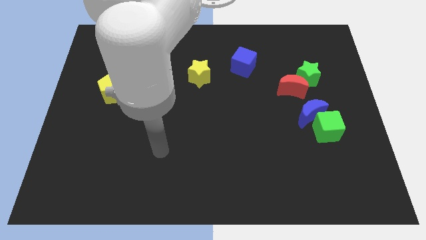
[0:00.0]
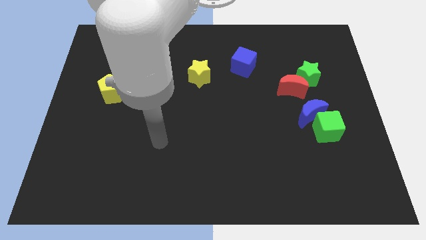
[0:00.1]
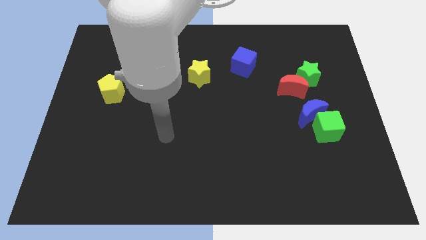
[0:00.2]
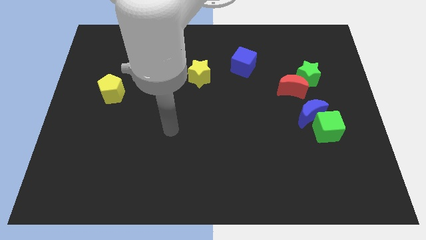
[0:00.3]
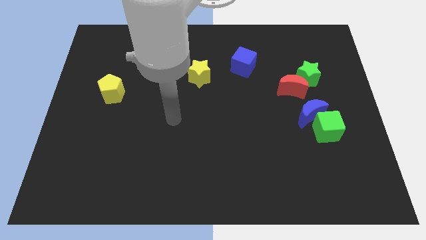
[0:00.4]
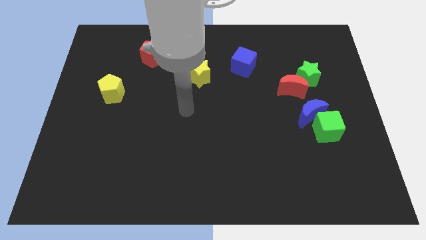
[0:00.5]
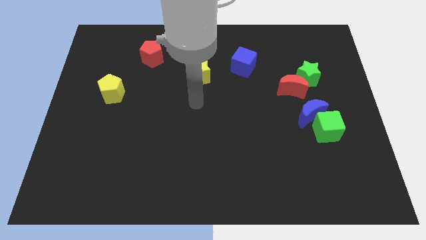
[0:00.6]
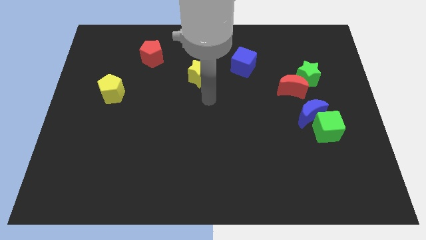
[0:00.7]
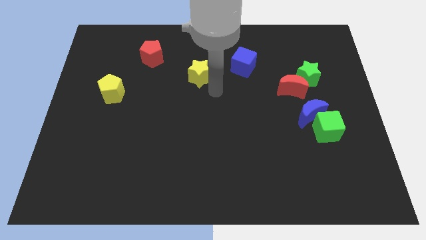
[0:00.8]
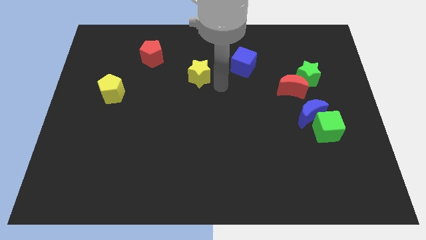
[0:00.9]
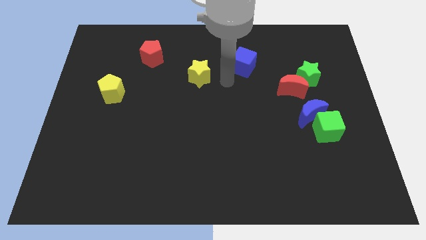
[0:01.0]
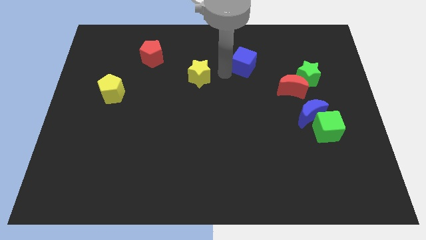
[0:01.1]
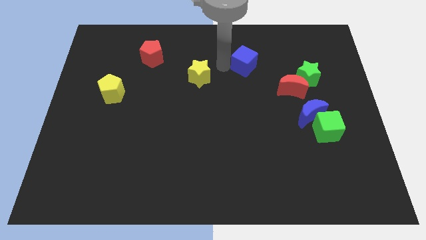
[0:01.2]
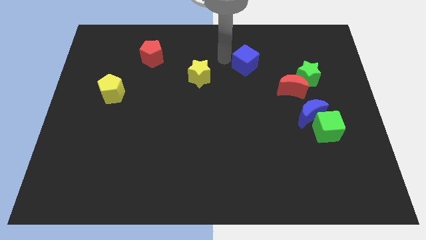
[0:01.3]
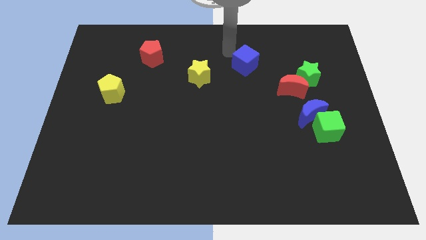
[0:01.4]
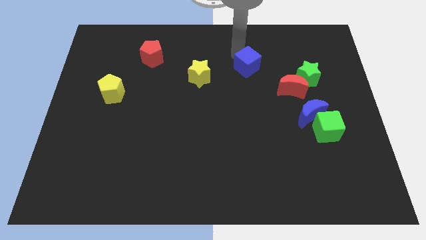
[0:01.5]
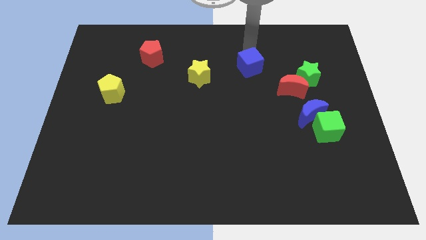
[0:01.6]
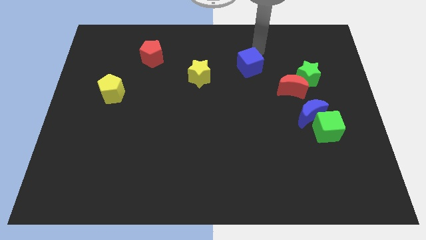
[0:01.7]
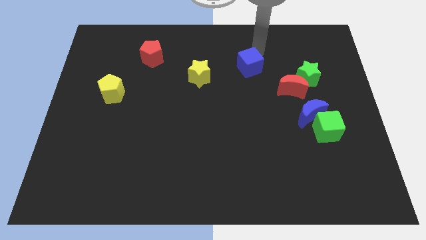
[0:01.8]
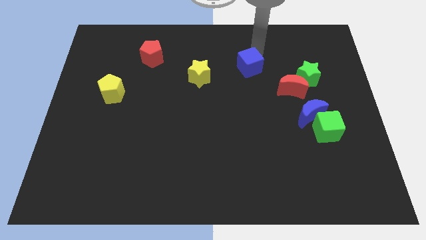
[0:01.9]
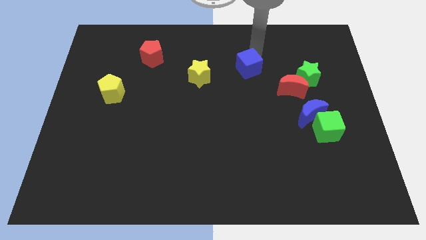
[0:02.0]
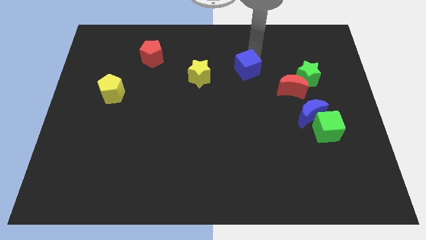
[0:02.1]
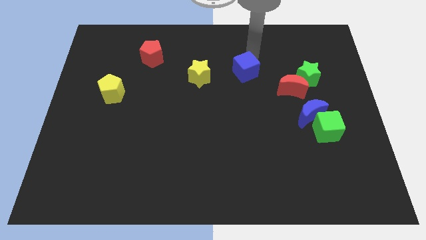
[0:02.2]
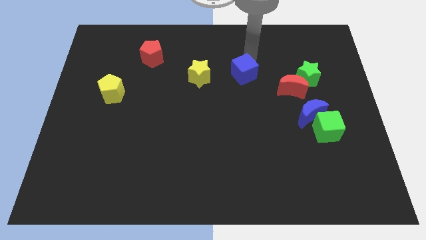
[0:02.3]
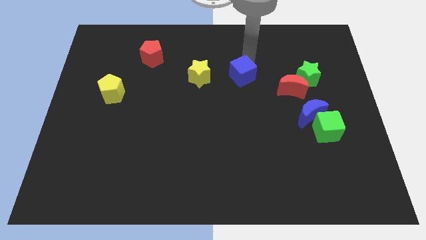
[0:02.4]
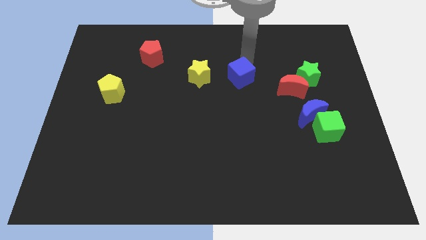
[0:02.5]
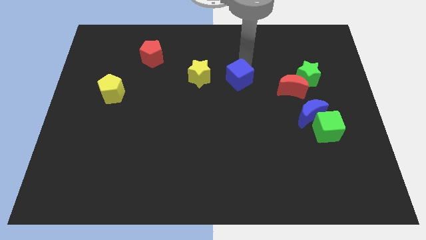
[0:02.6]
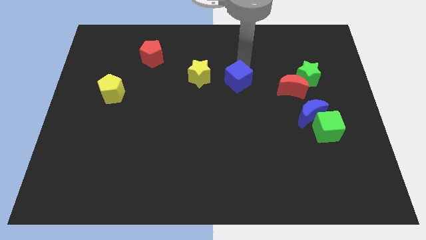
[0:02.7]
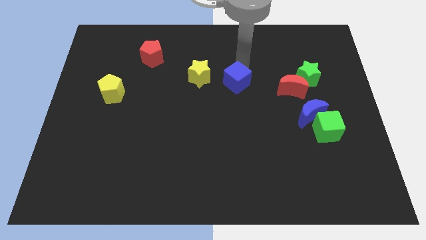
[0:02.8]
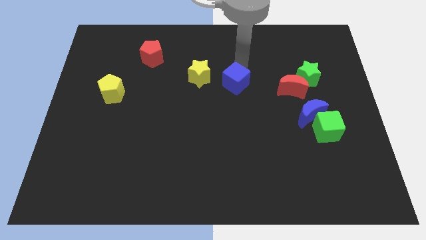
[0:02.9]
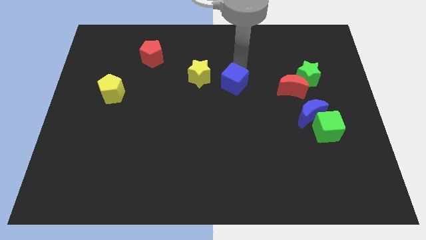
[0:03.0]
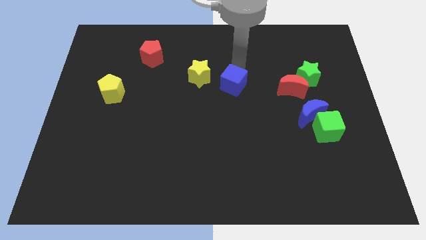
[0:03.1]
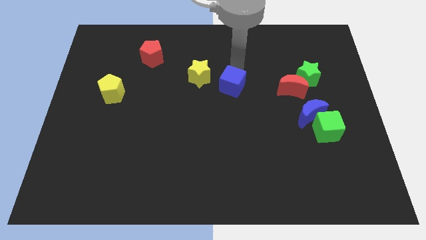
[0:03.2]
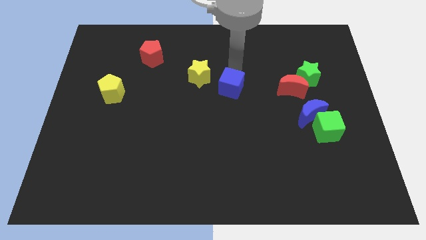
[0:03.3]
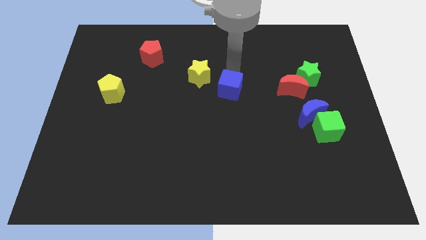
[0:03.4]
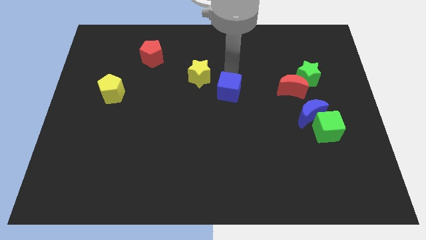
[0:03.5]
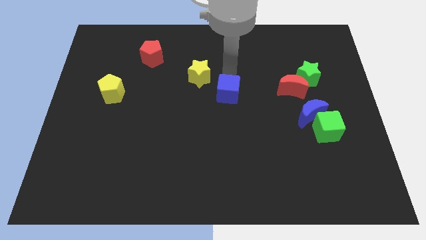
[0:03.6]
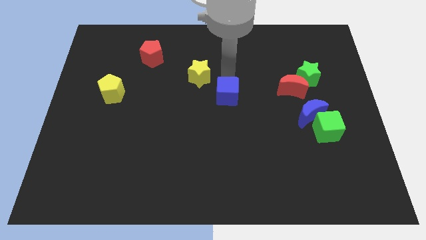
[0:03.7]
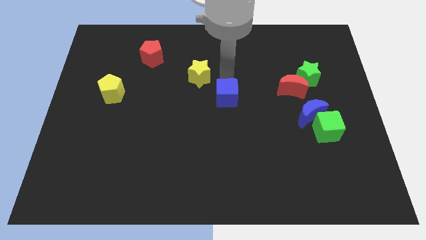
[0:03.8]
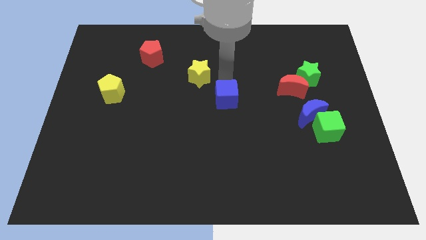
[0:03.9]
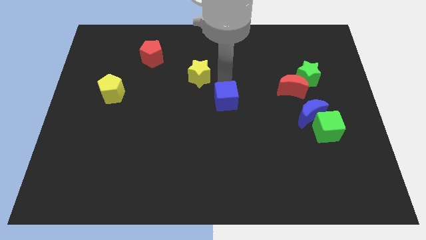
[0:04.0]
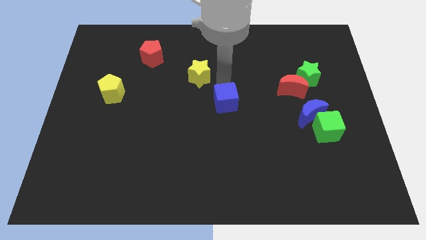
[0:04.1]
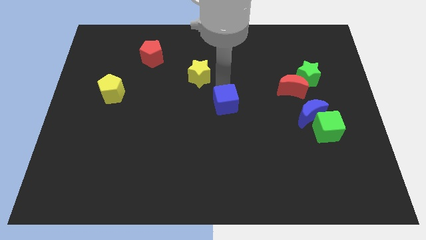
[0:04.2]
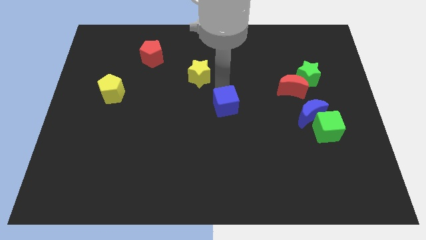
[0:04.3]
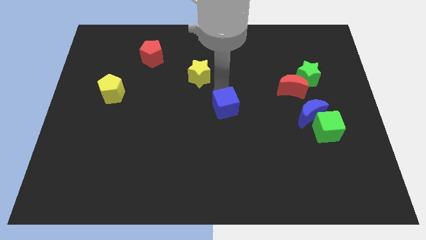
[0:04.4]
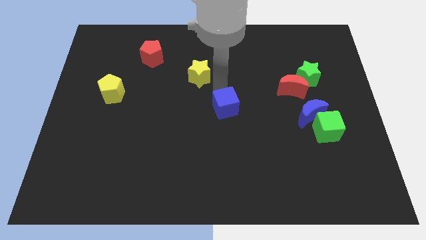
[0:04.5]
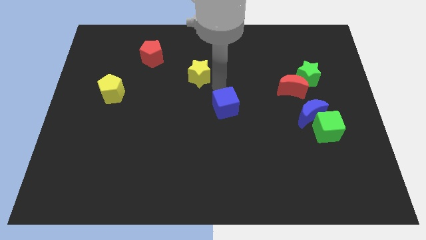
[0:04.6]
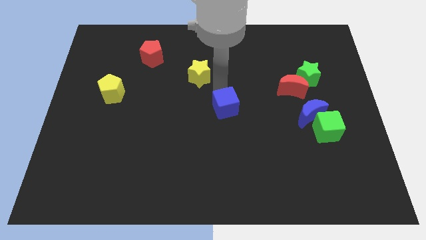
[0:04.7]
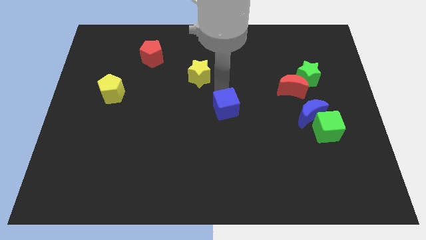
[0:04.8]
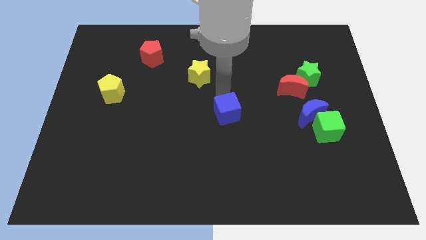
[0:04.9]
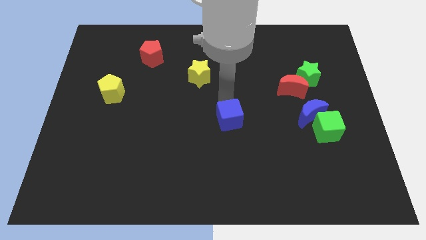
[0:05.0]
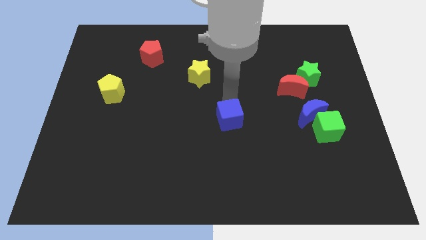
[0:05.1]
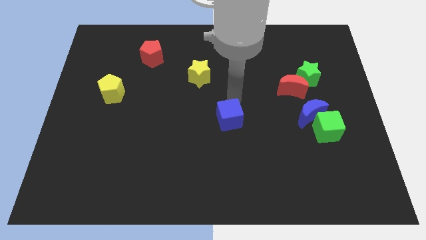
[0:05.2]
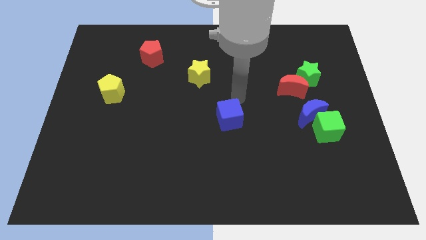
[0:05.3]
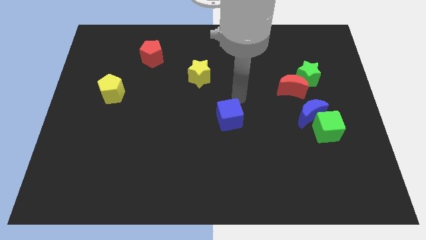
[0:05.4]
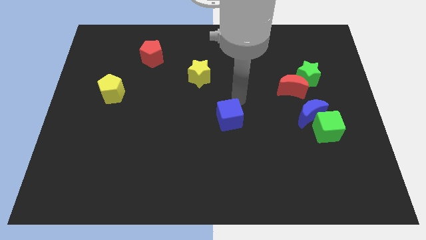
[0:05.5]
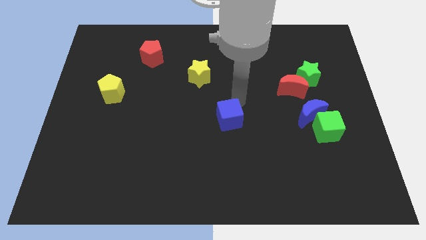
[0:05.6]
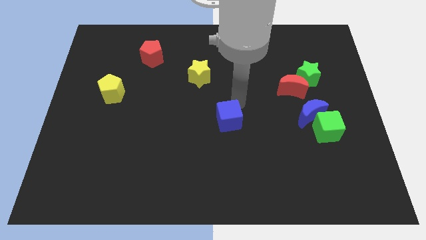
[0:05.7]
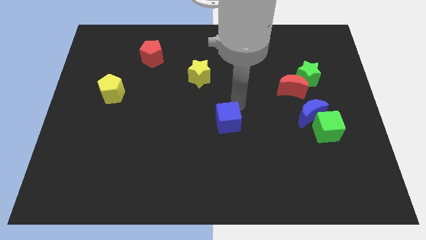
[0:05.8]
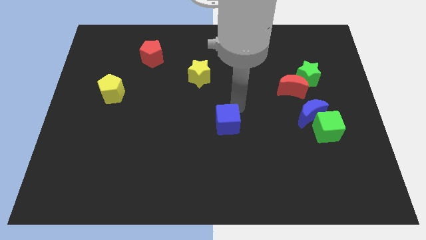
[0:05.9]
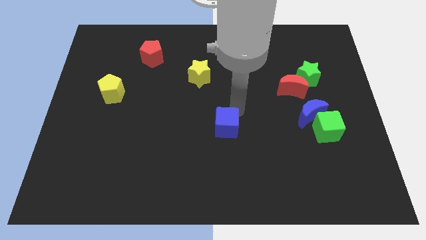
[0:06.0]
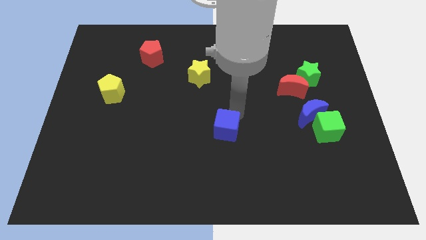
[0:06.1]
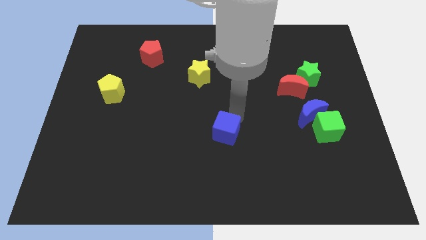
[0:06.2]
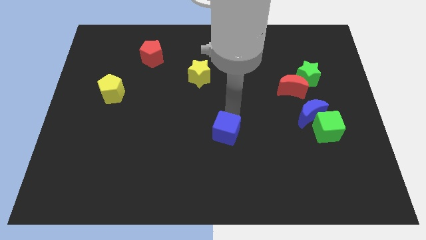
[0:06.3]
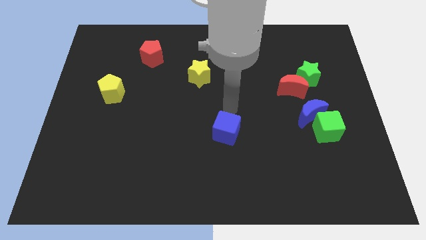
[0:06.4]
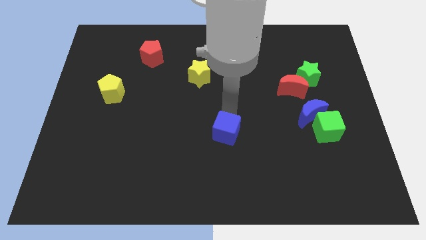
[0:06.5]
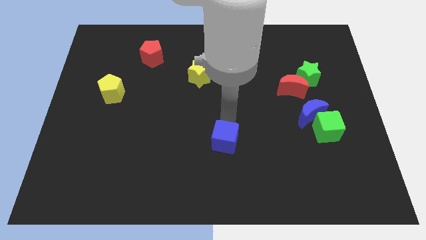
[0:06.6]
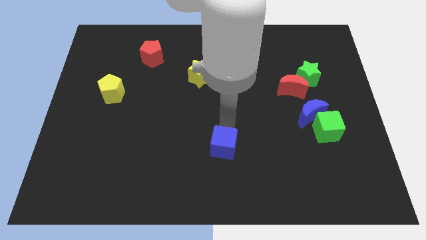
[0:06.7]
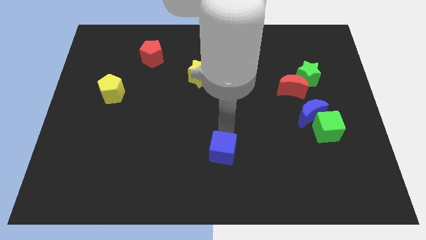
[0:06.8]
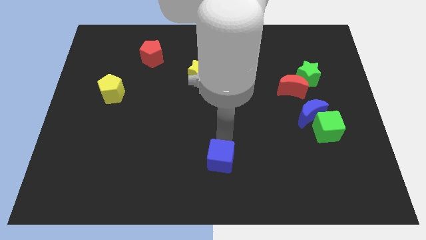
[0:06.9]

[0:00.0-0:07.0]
push the blue cube to the bottom
